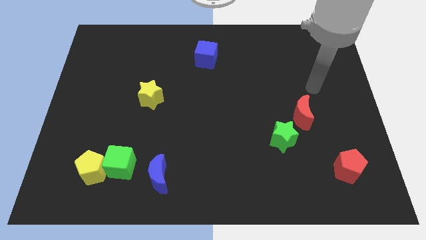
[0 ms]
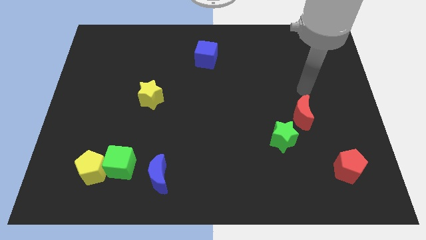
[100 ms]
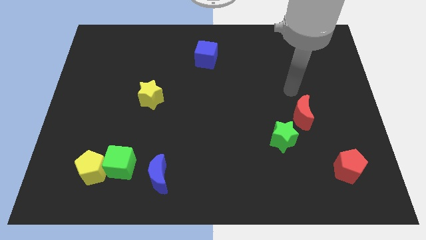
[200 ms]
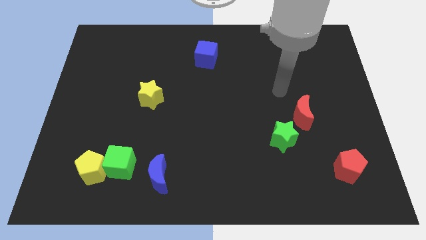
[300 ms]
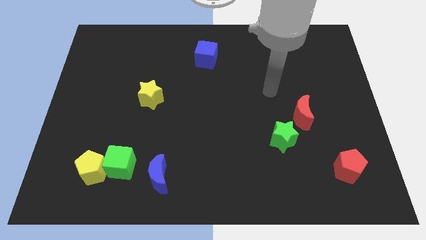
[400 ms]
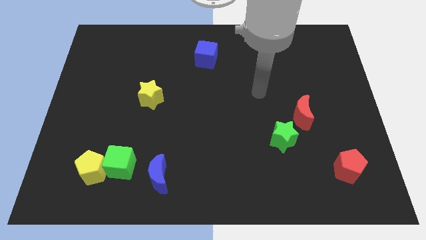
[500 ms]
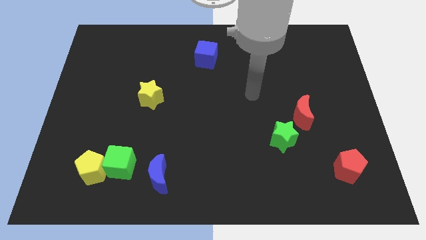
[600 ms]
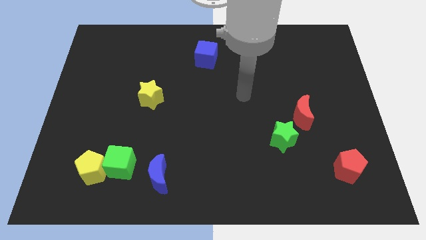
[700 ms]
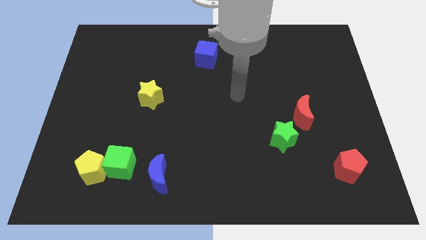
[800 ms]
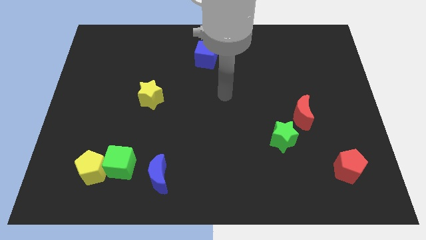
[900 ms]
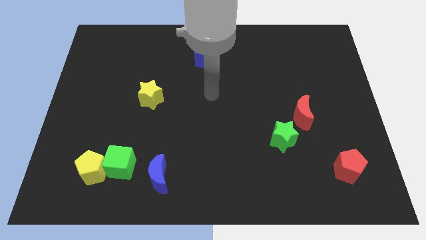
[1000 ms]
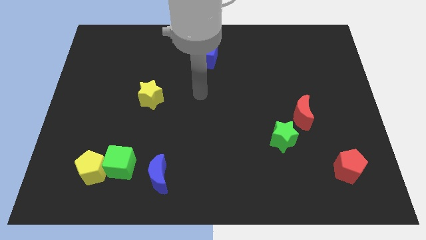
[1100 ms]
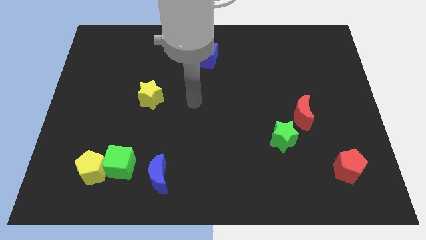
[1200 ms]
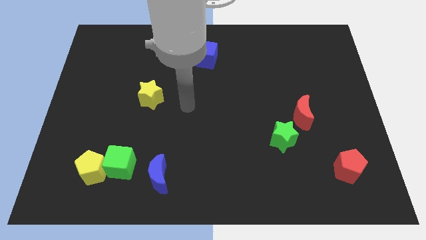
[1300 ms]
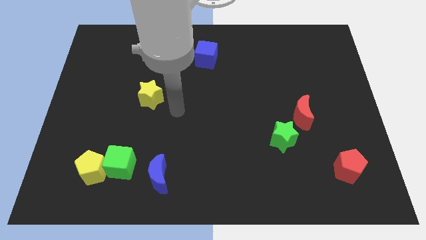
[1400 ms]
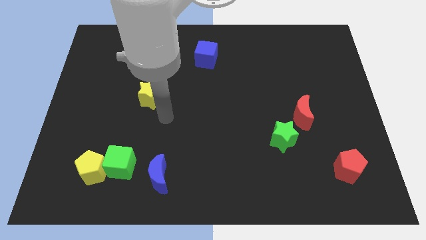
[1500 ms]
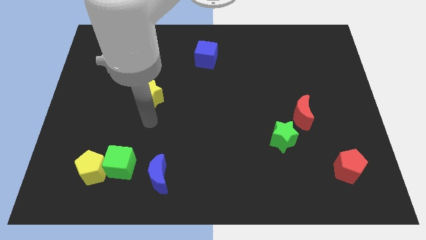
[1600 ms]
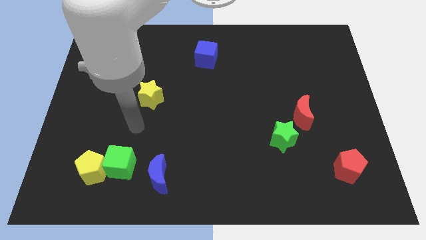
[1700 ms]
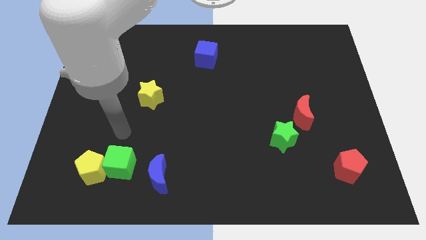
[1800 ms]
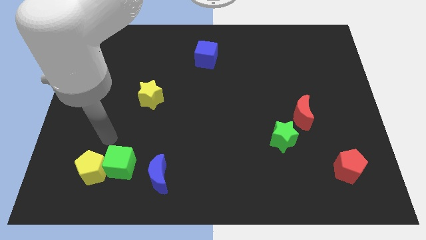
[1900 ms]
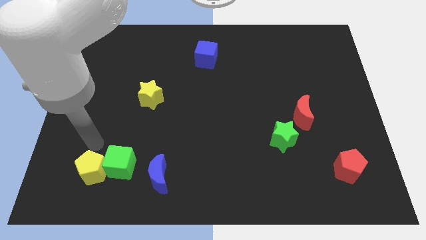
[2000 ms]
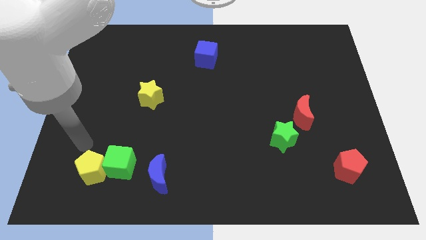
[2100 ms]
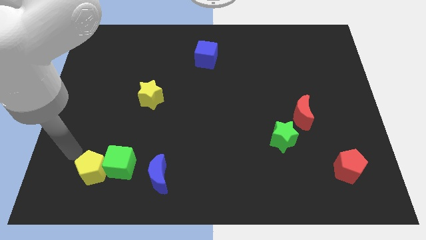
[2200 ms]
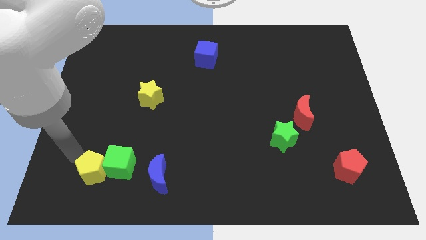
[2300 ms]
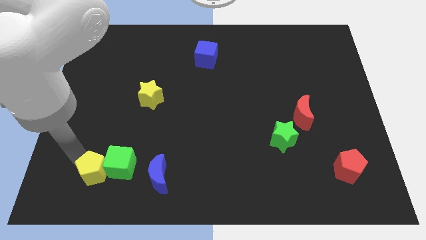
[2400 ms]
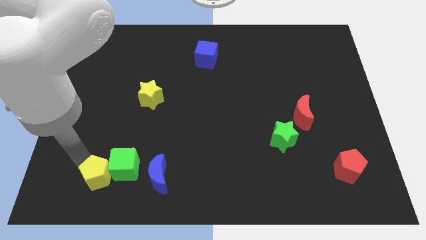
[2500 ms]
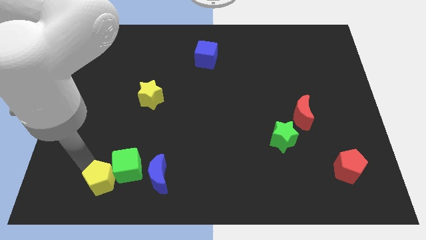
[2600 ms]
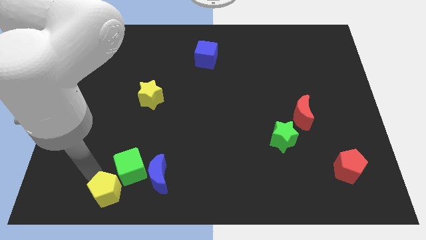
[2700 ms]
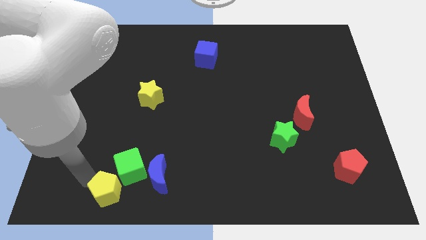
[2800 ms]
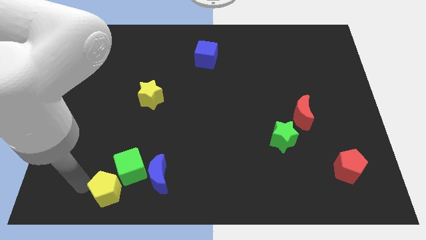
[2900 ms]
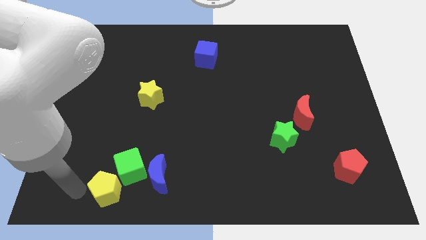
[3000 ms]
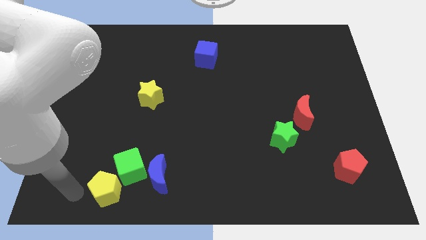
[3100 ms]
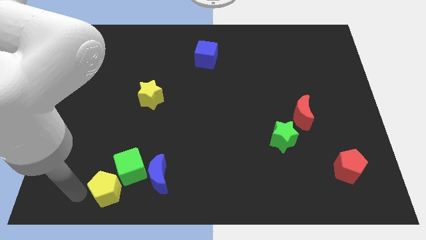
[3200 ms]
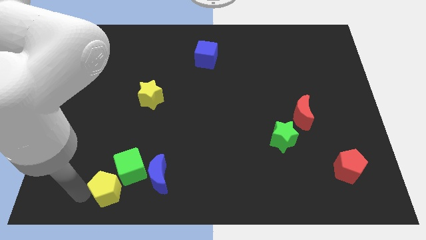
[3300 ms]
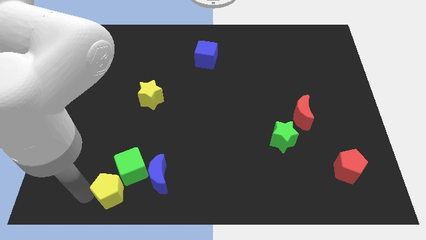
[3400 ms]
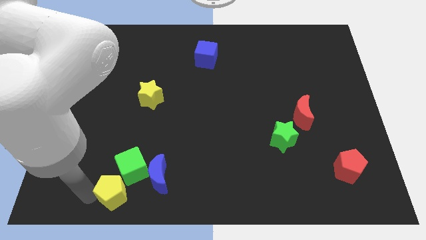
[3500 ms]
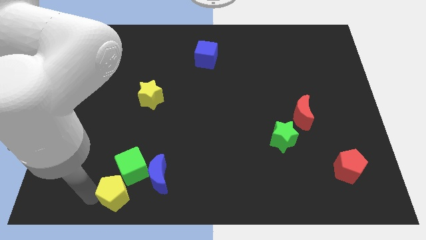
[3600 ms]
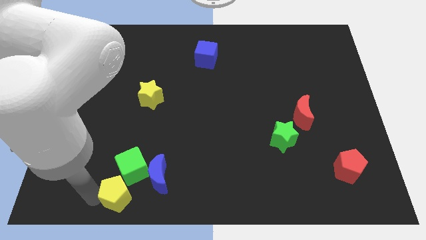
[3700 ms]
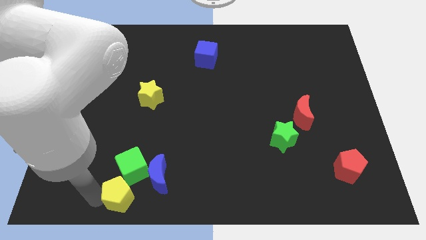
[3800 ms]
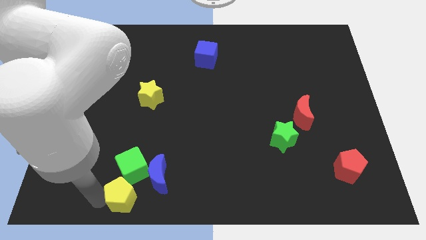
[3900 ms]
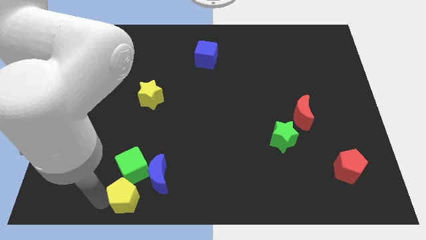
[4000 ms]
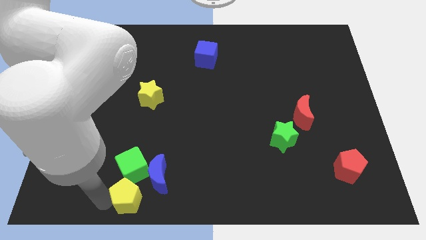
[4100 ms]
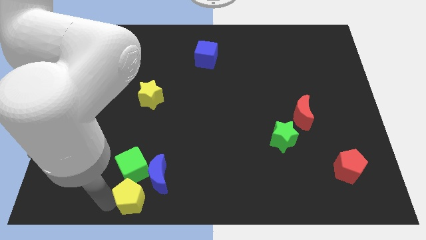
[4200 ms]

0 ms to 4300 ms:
slide the yellow pentagon a bit to the right

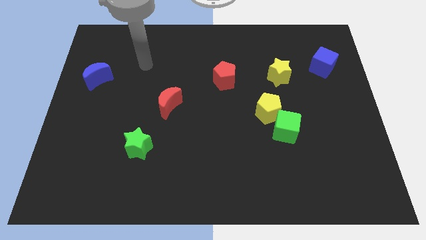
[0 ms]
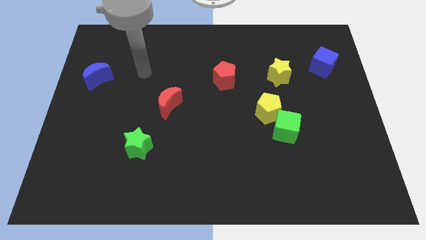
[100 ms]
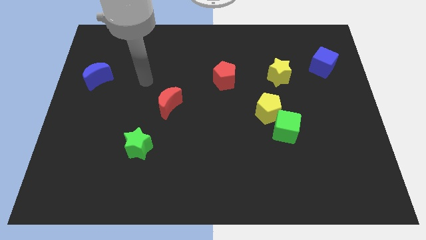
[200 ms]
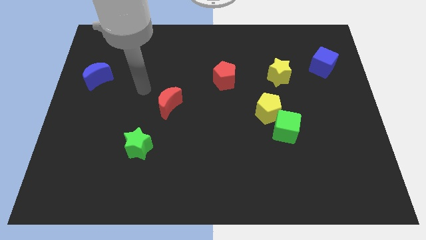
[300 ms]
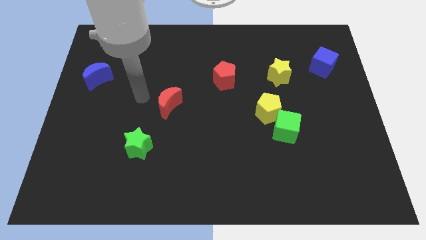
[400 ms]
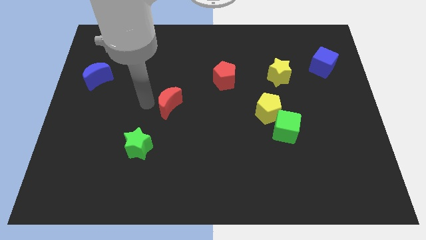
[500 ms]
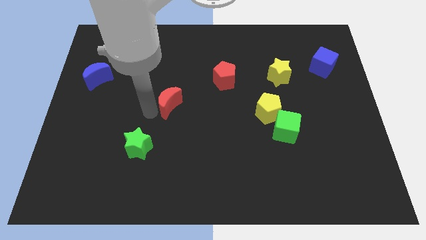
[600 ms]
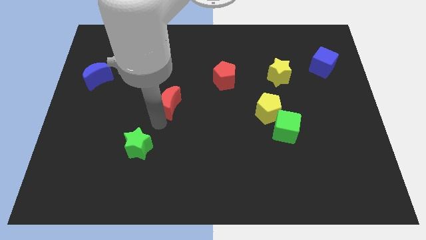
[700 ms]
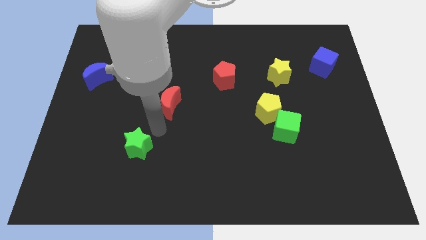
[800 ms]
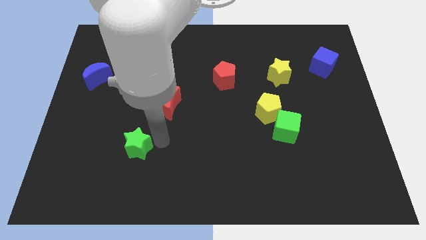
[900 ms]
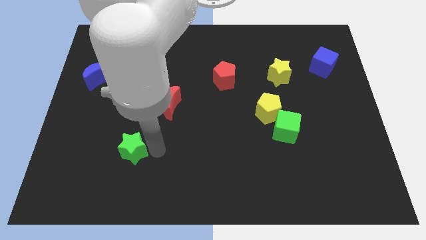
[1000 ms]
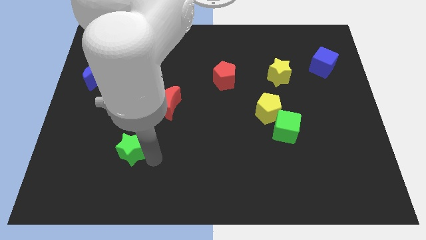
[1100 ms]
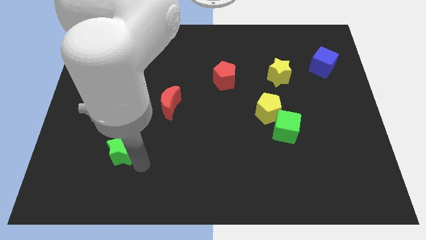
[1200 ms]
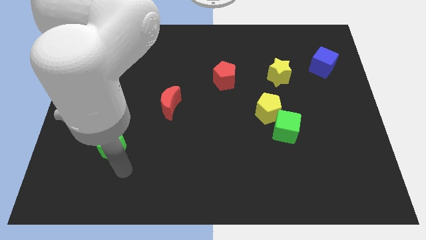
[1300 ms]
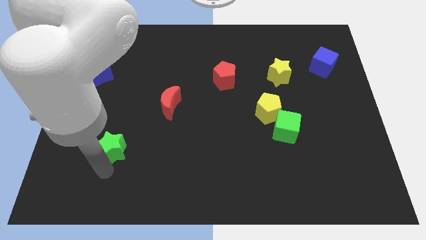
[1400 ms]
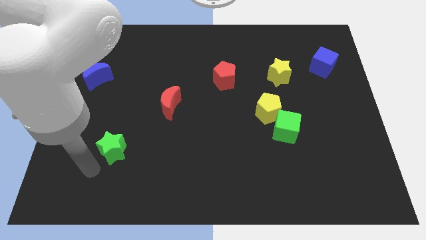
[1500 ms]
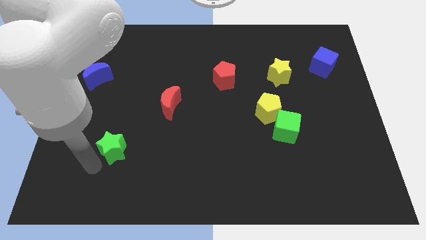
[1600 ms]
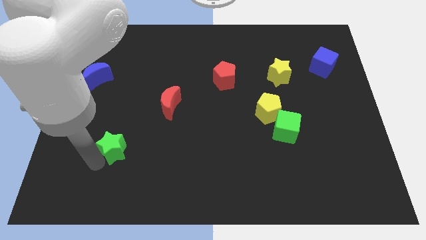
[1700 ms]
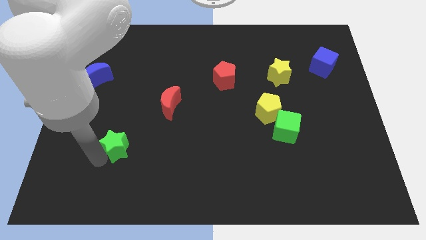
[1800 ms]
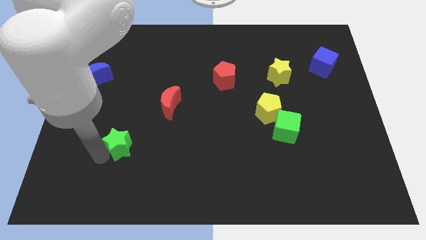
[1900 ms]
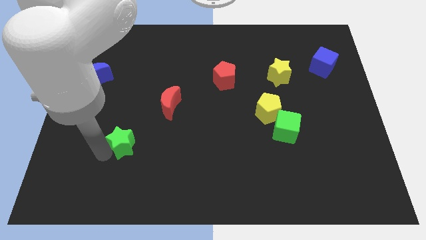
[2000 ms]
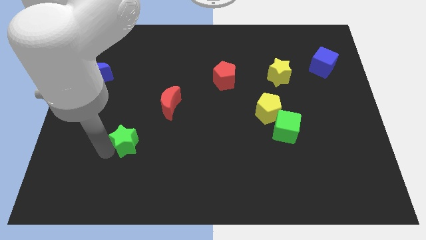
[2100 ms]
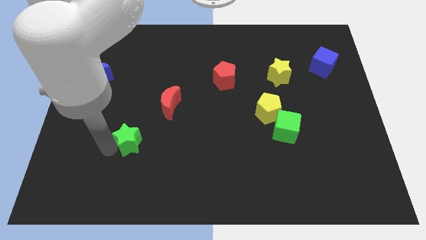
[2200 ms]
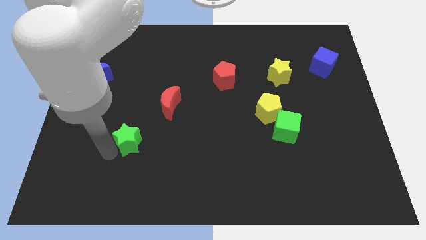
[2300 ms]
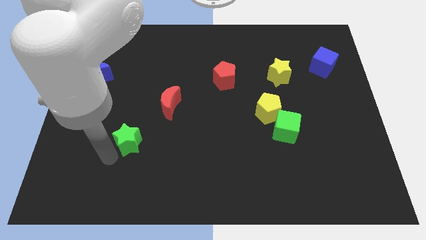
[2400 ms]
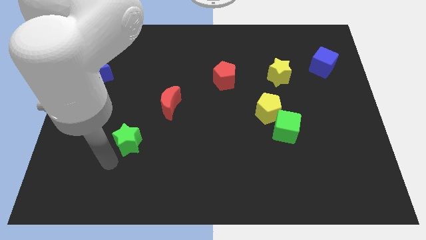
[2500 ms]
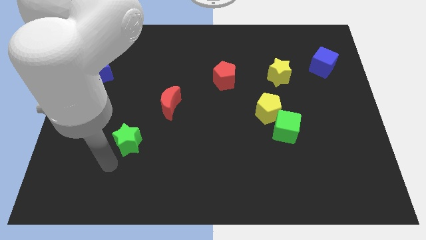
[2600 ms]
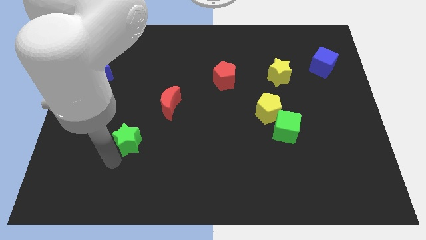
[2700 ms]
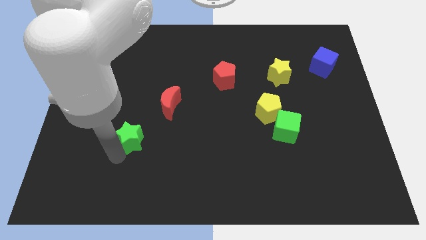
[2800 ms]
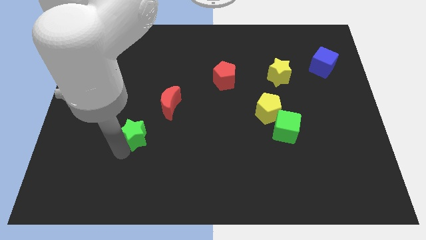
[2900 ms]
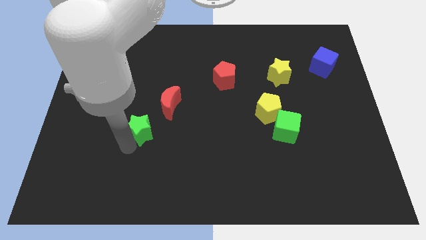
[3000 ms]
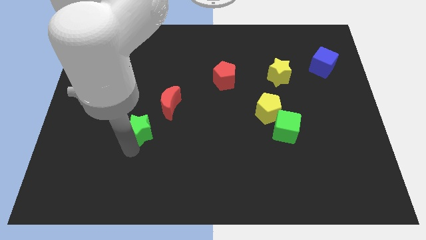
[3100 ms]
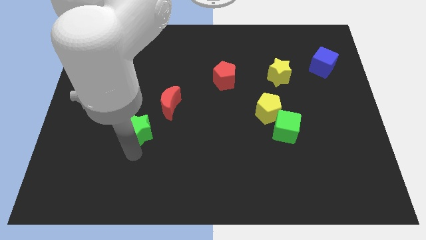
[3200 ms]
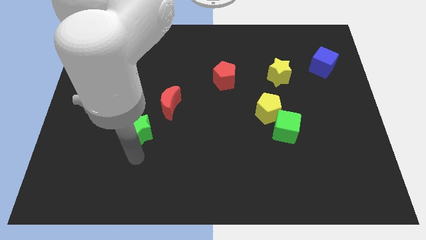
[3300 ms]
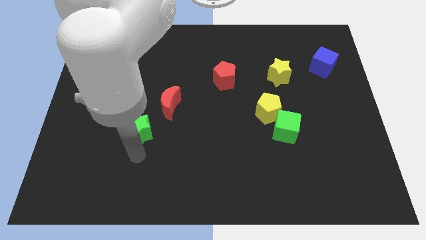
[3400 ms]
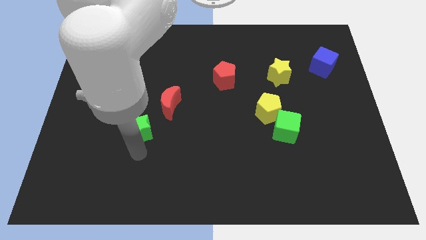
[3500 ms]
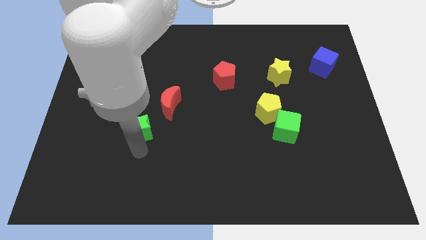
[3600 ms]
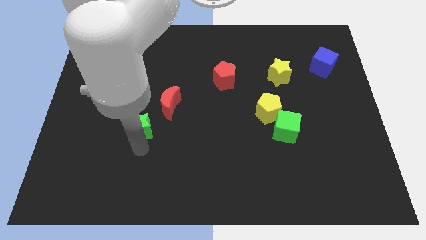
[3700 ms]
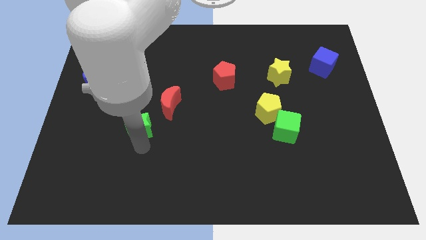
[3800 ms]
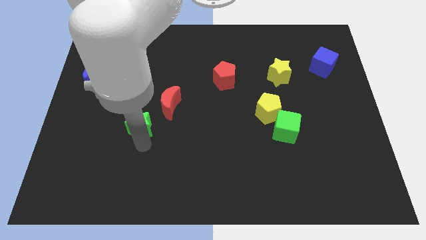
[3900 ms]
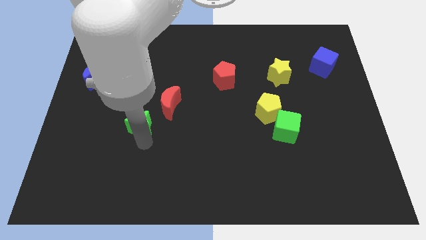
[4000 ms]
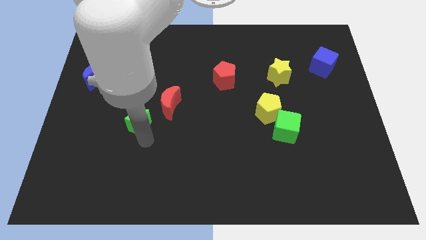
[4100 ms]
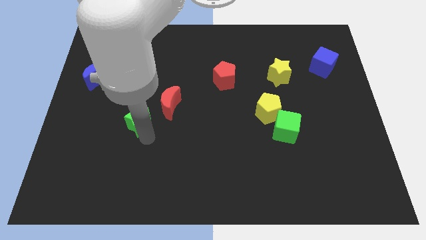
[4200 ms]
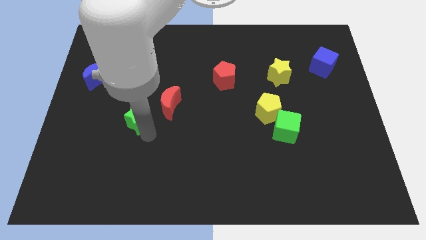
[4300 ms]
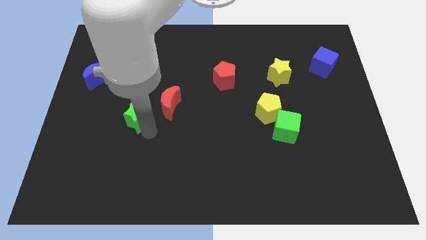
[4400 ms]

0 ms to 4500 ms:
slightly slide the green star up
